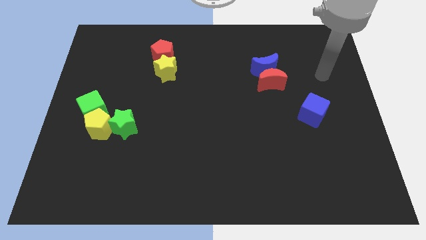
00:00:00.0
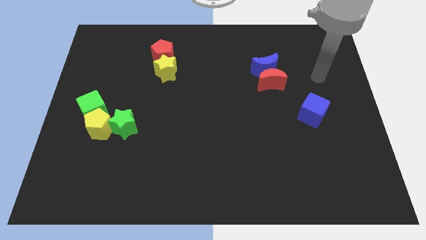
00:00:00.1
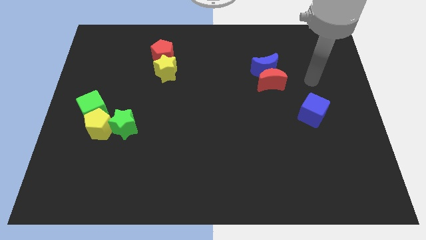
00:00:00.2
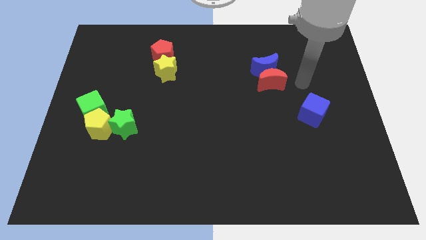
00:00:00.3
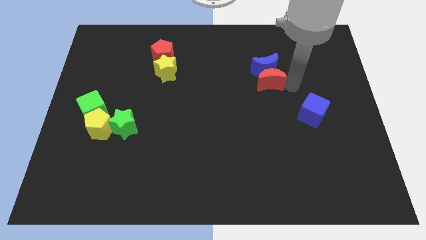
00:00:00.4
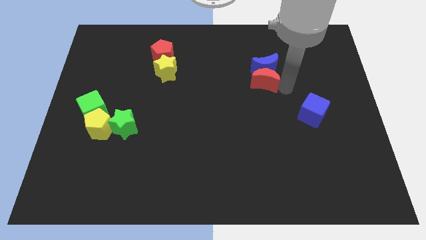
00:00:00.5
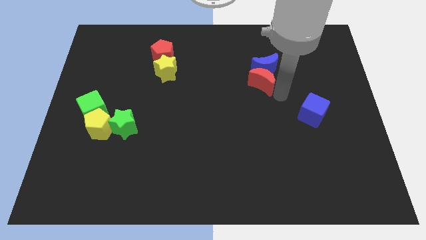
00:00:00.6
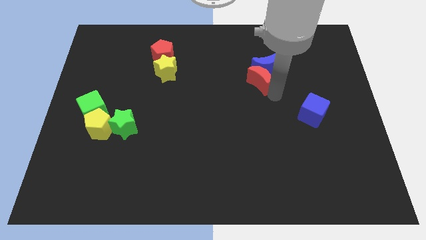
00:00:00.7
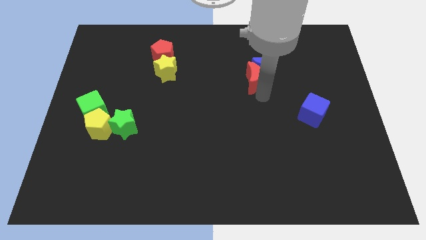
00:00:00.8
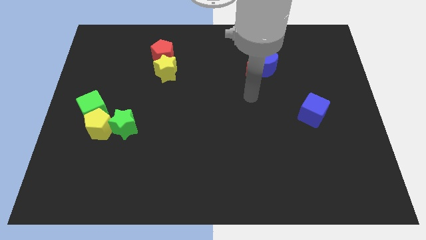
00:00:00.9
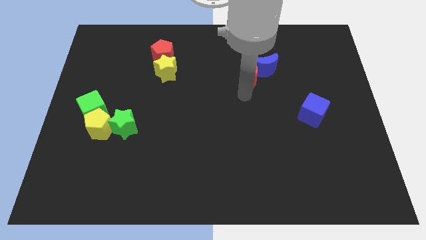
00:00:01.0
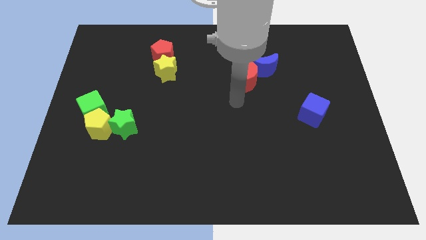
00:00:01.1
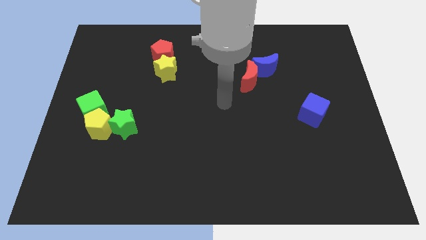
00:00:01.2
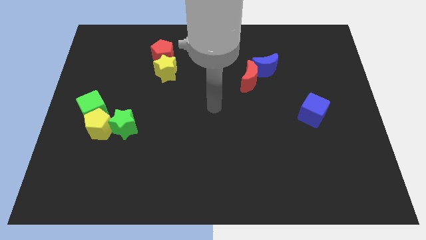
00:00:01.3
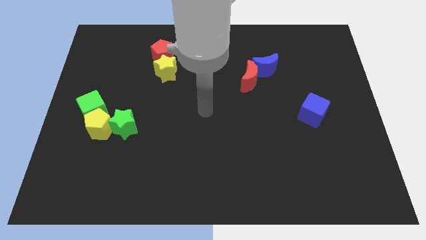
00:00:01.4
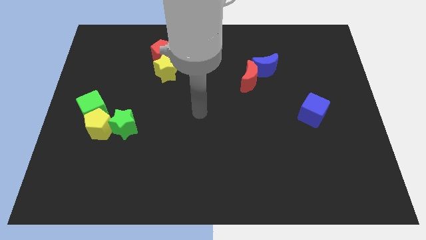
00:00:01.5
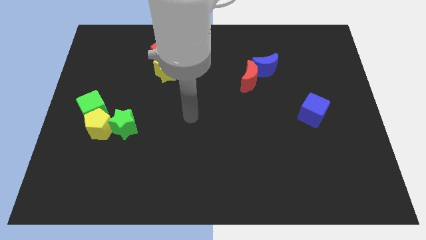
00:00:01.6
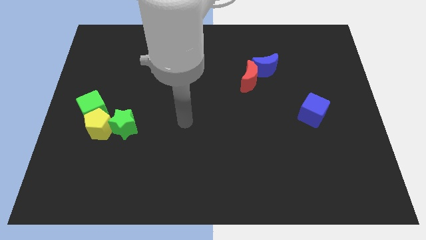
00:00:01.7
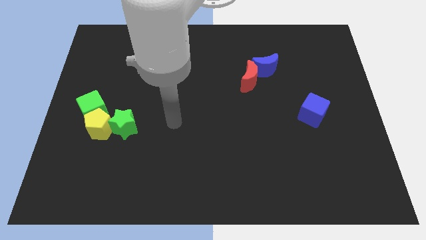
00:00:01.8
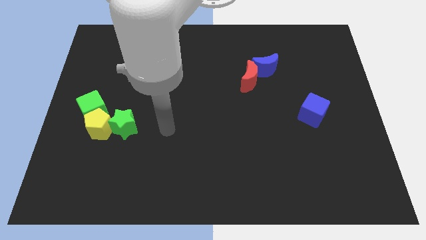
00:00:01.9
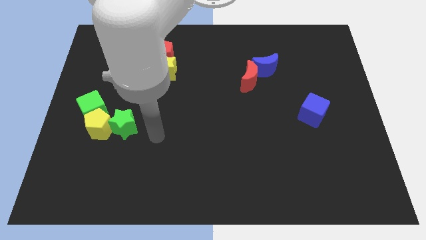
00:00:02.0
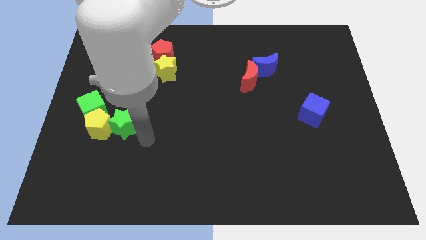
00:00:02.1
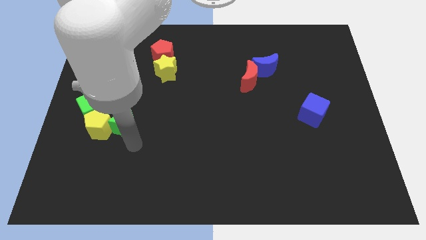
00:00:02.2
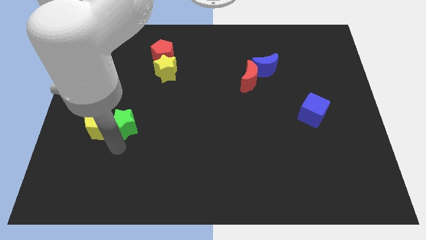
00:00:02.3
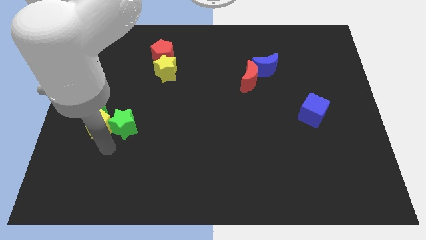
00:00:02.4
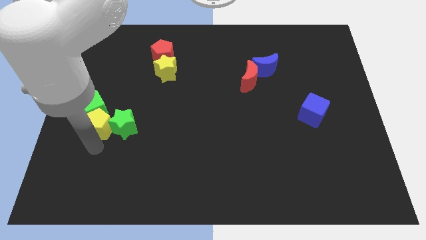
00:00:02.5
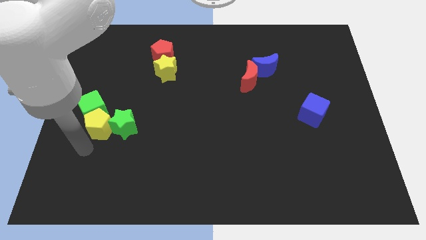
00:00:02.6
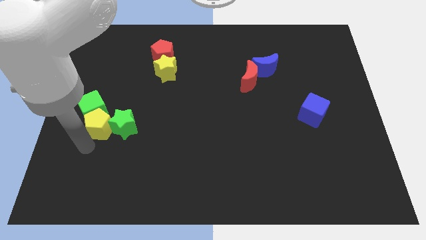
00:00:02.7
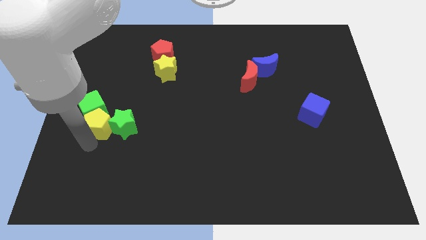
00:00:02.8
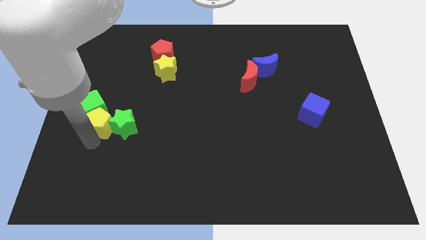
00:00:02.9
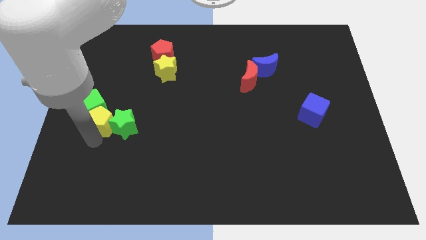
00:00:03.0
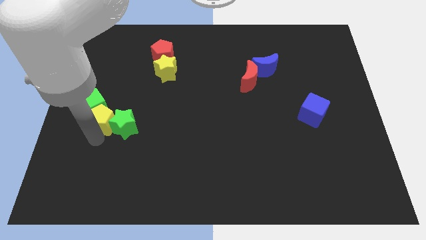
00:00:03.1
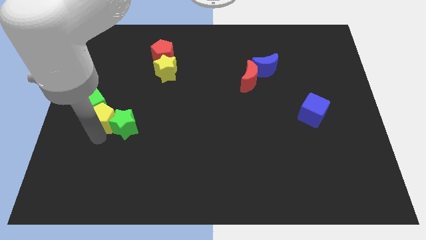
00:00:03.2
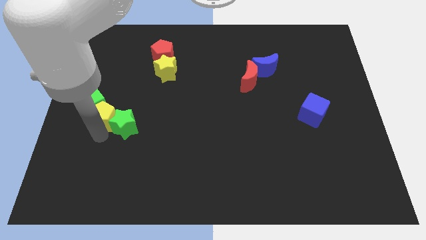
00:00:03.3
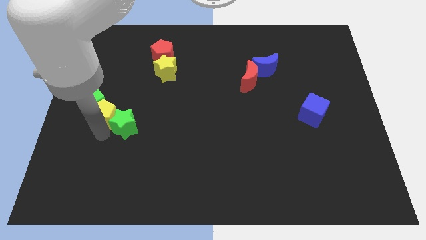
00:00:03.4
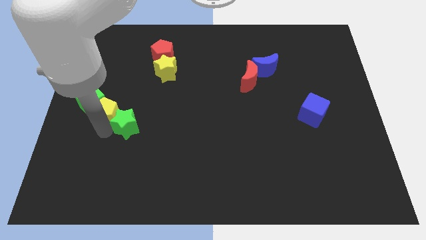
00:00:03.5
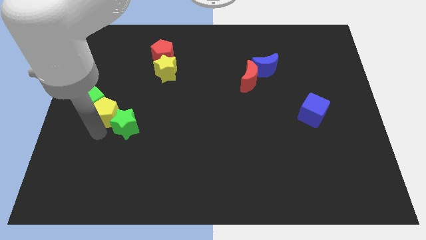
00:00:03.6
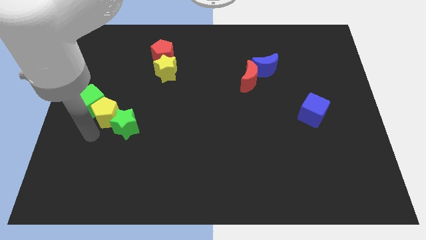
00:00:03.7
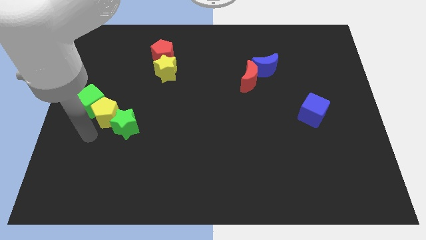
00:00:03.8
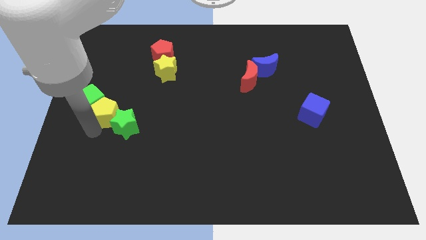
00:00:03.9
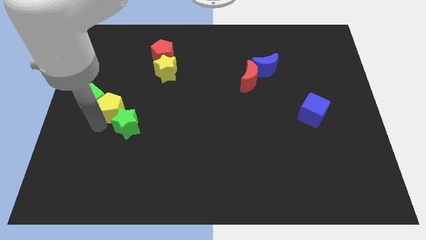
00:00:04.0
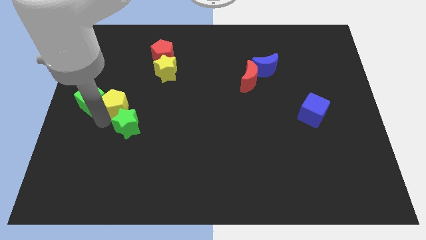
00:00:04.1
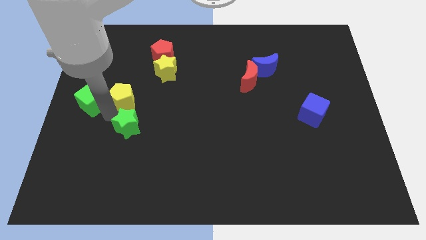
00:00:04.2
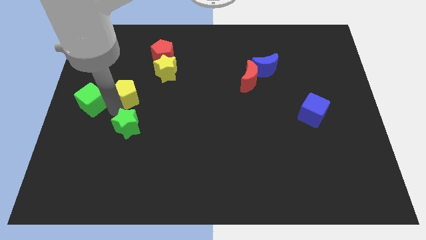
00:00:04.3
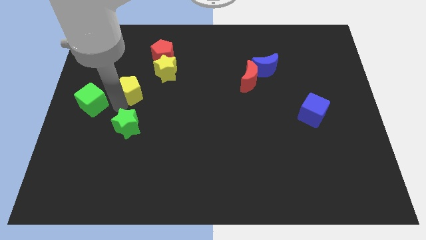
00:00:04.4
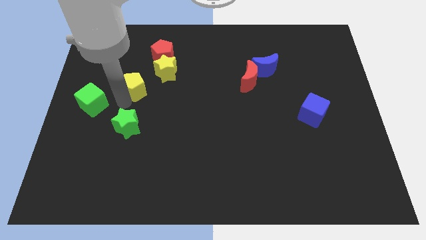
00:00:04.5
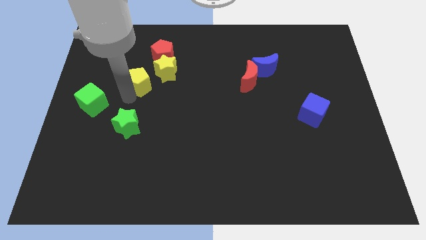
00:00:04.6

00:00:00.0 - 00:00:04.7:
push the yellow pentagon to the bottom left side of the red pentagon

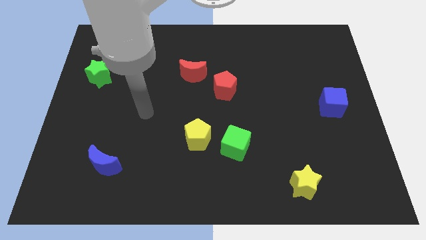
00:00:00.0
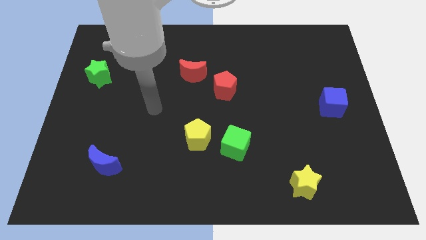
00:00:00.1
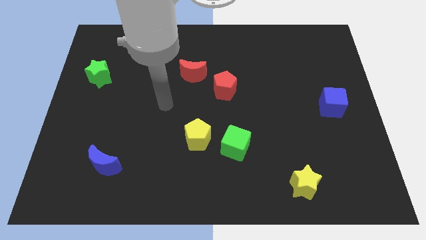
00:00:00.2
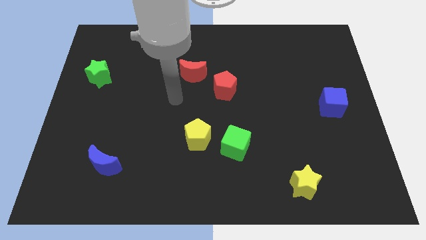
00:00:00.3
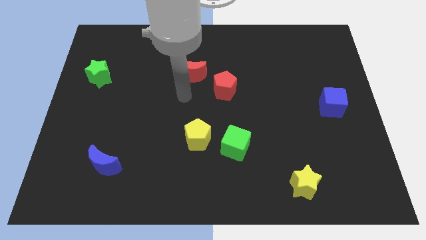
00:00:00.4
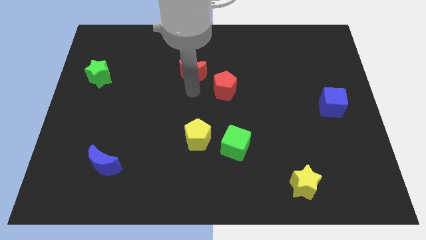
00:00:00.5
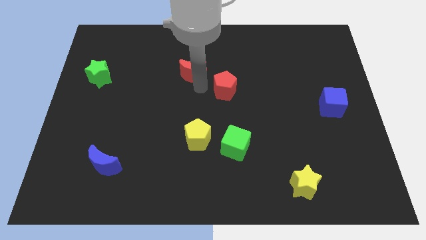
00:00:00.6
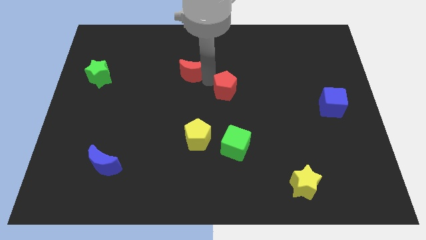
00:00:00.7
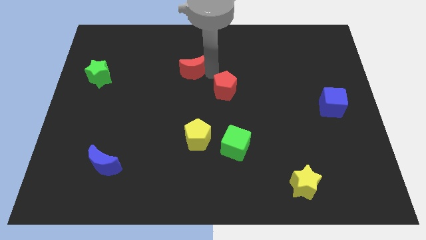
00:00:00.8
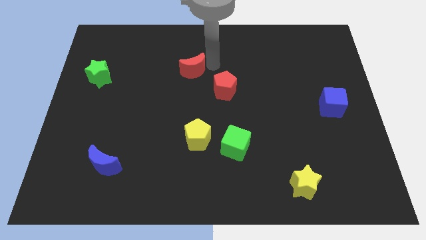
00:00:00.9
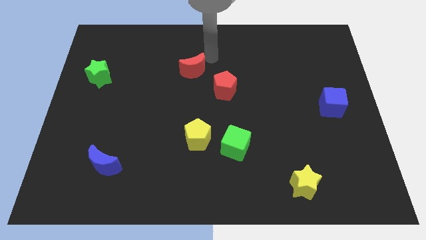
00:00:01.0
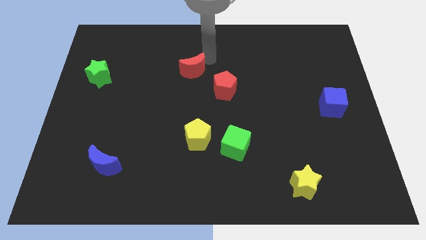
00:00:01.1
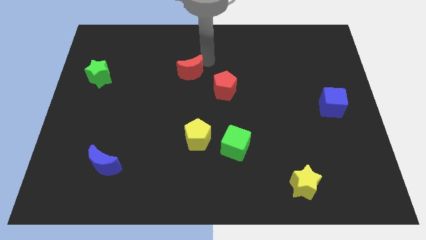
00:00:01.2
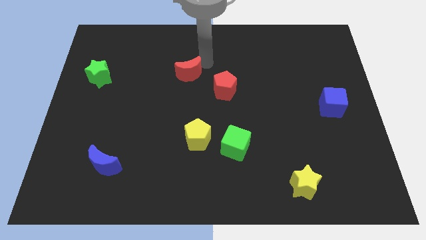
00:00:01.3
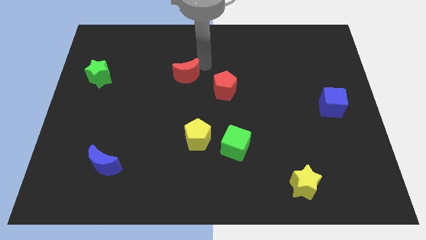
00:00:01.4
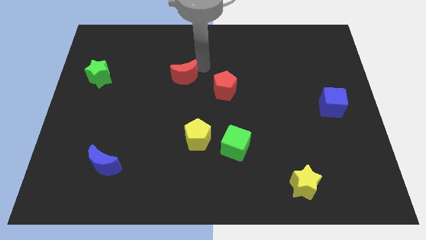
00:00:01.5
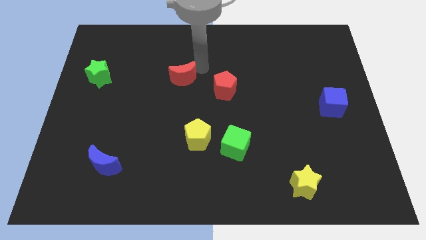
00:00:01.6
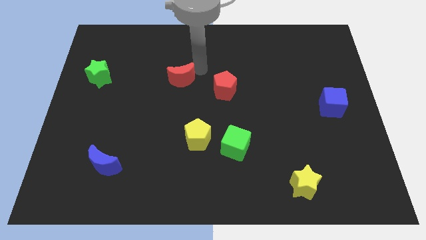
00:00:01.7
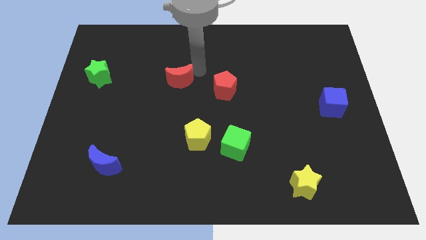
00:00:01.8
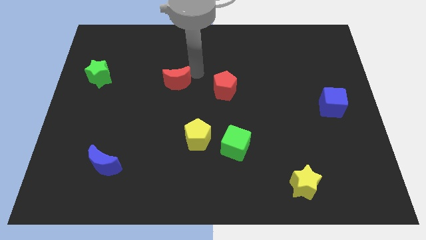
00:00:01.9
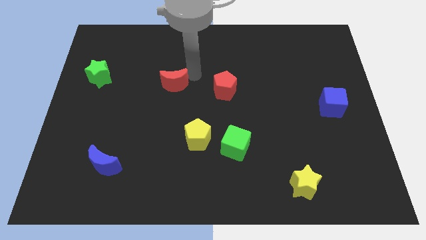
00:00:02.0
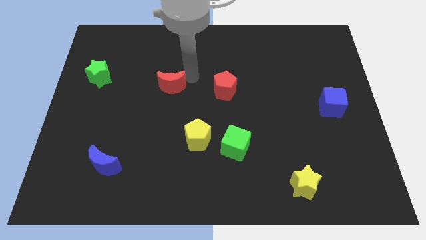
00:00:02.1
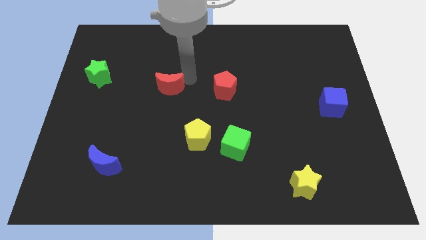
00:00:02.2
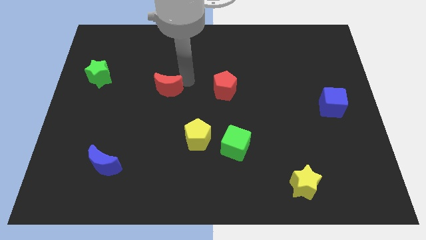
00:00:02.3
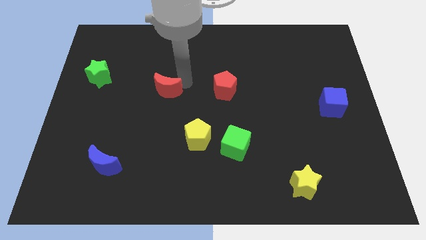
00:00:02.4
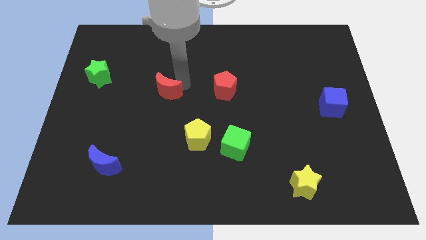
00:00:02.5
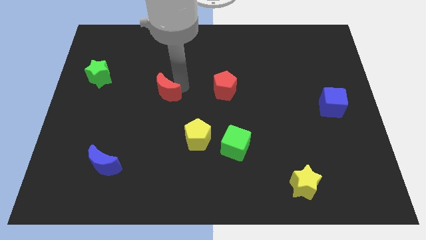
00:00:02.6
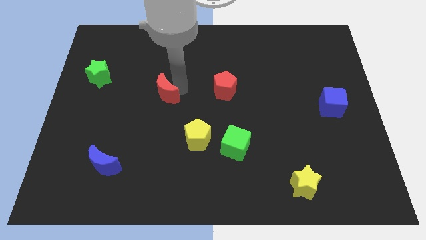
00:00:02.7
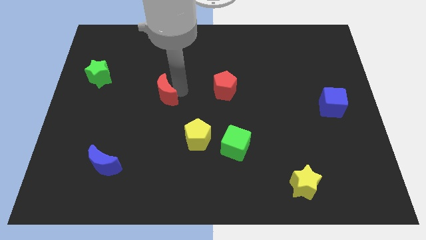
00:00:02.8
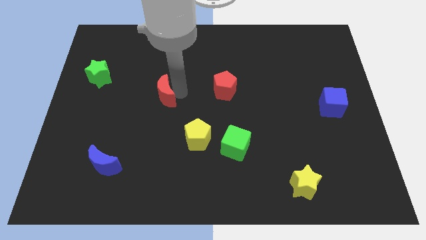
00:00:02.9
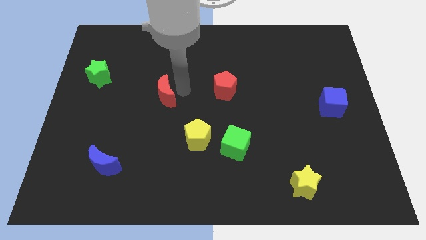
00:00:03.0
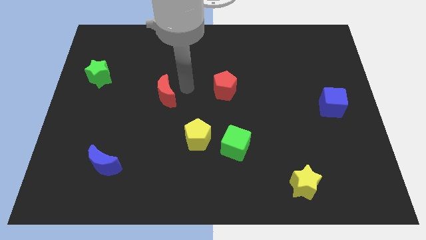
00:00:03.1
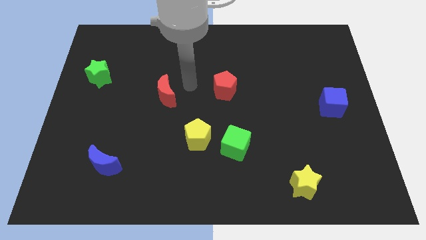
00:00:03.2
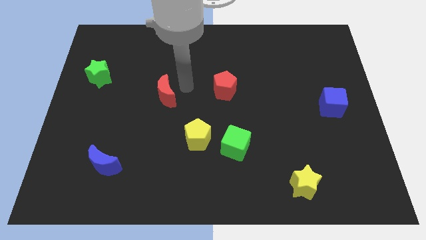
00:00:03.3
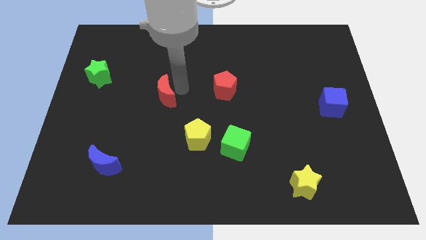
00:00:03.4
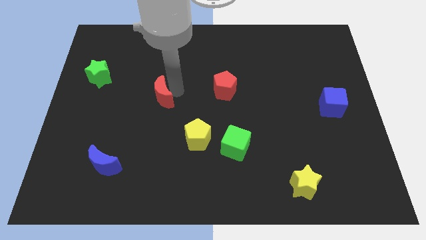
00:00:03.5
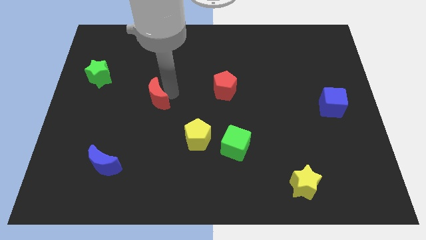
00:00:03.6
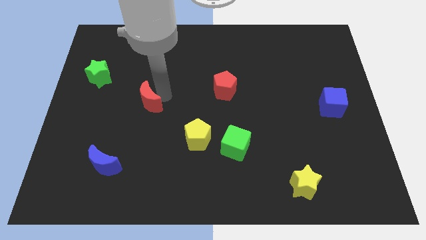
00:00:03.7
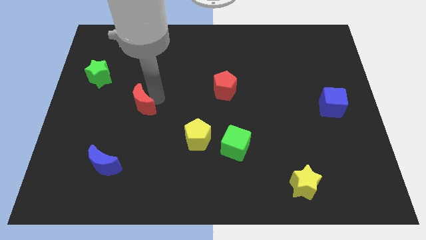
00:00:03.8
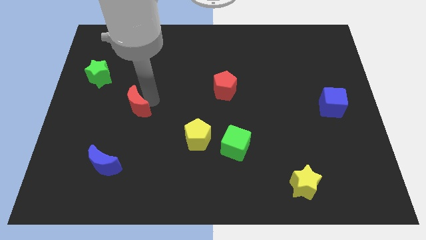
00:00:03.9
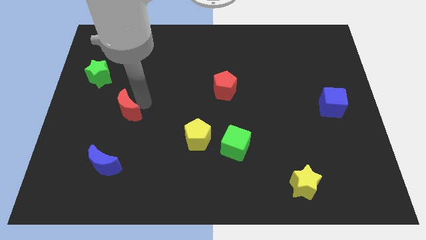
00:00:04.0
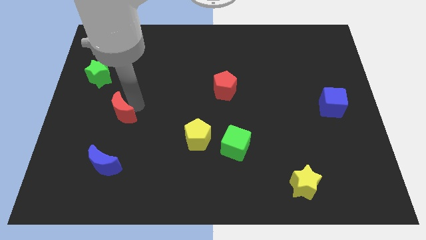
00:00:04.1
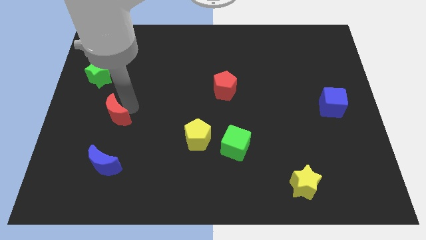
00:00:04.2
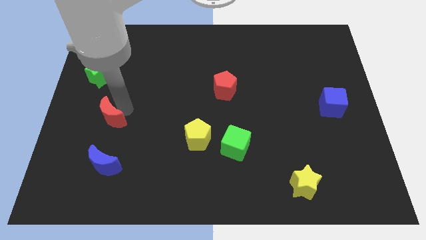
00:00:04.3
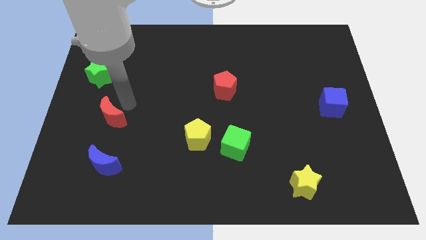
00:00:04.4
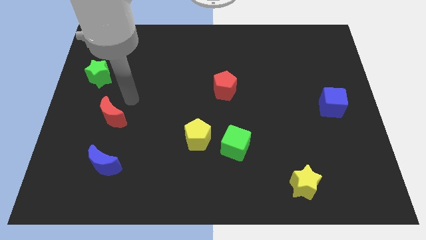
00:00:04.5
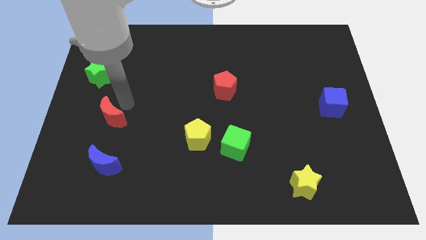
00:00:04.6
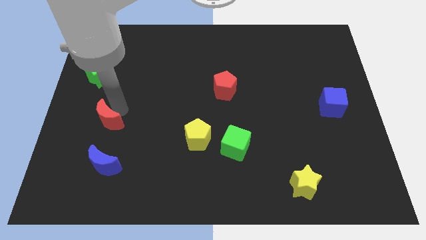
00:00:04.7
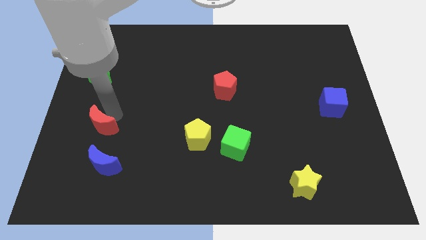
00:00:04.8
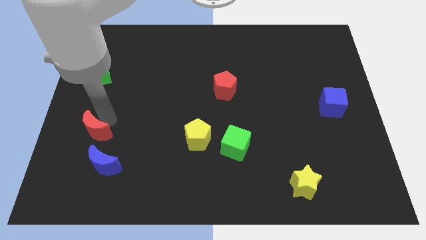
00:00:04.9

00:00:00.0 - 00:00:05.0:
move the red moon to the top left side of the blue moon
